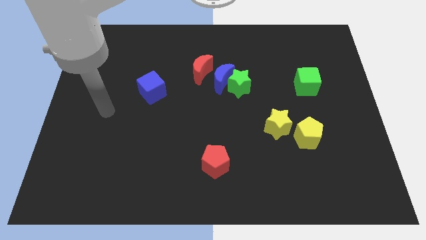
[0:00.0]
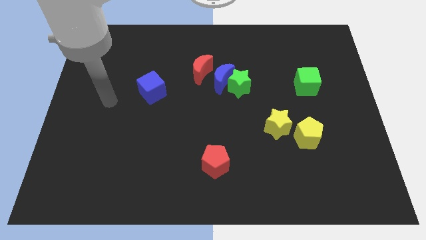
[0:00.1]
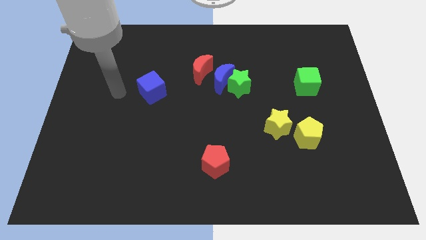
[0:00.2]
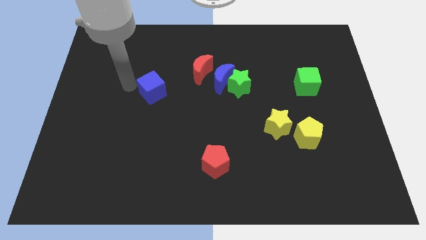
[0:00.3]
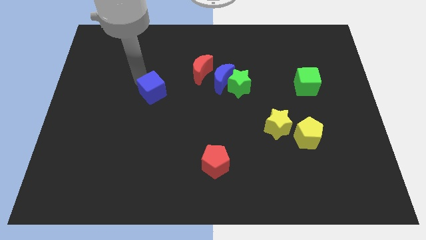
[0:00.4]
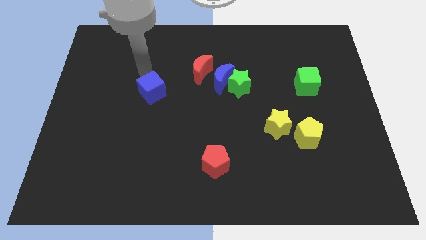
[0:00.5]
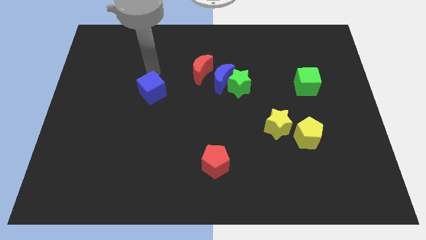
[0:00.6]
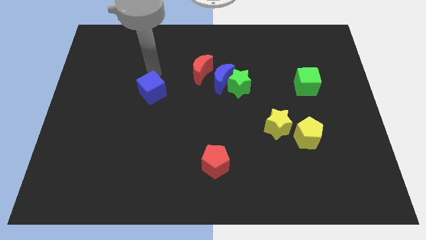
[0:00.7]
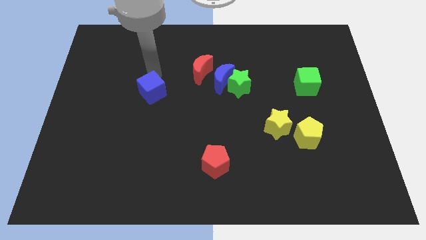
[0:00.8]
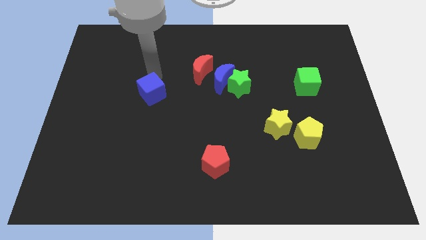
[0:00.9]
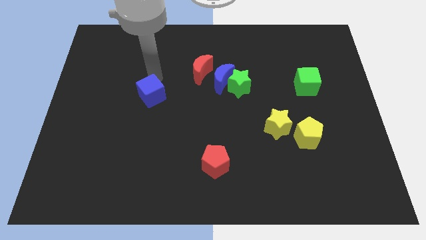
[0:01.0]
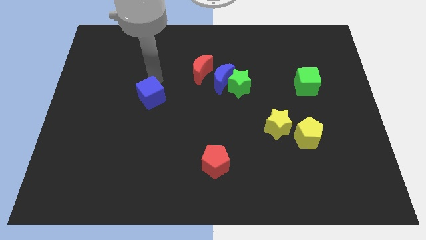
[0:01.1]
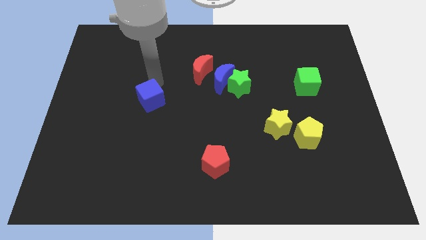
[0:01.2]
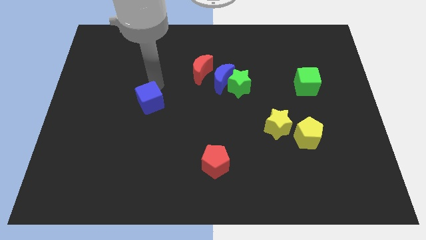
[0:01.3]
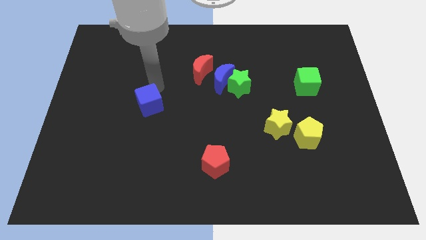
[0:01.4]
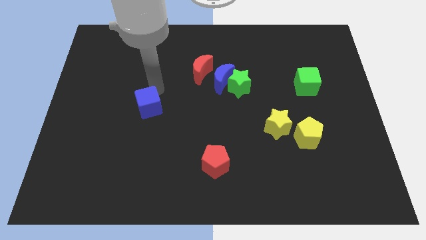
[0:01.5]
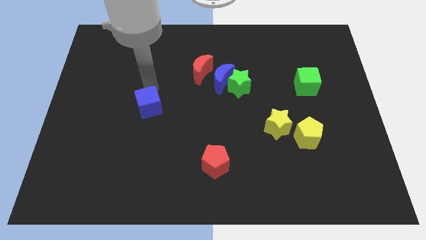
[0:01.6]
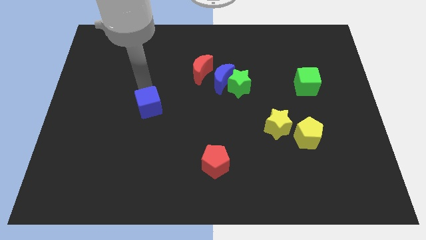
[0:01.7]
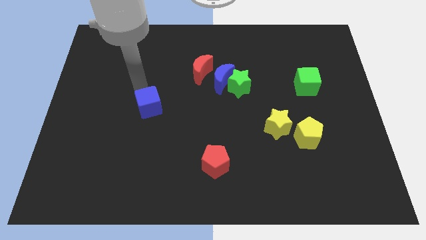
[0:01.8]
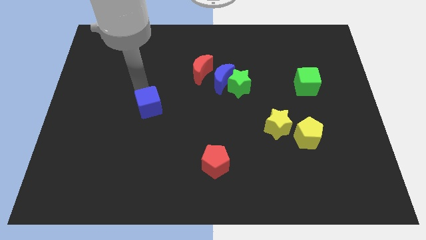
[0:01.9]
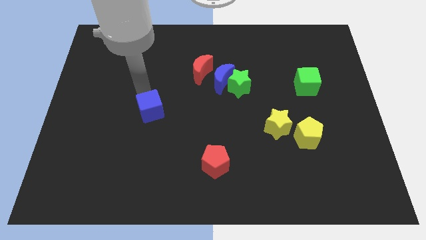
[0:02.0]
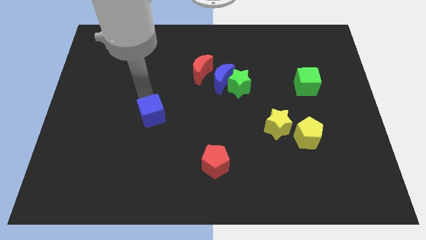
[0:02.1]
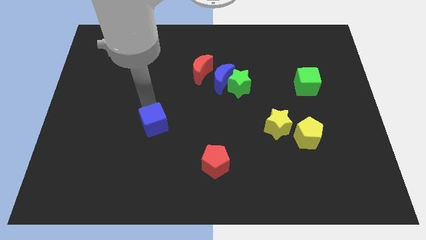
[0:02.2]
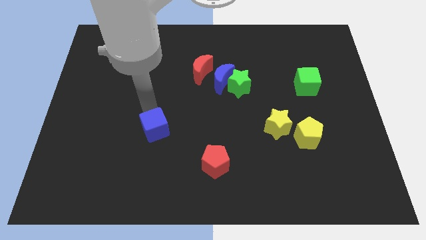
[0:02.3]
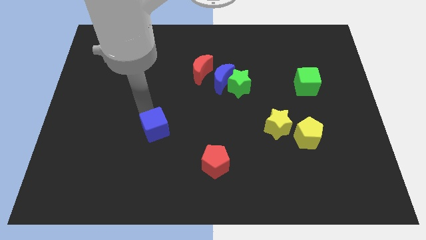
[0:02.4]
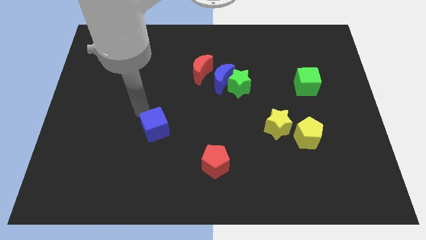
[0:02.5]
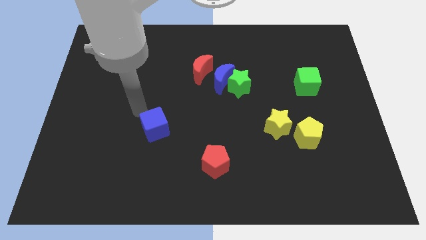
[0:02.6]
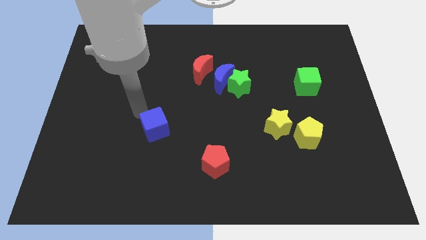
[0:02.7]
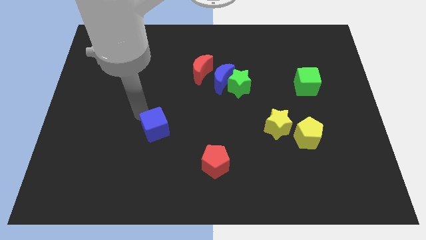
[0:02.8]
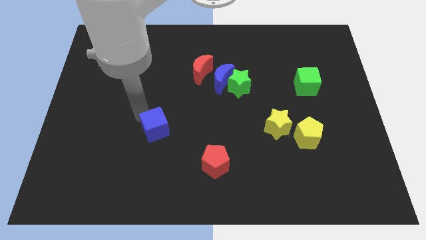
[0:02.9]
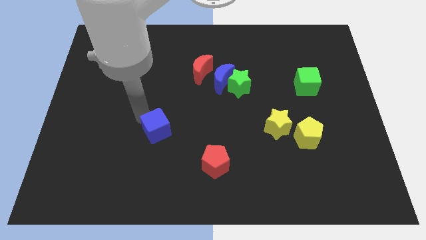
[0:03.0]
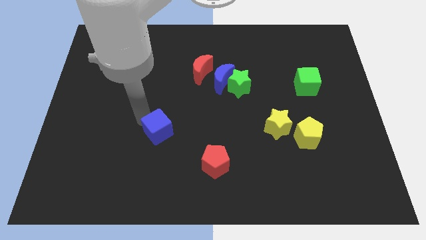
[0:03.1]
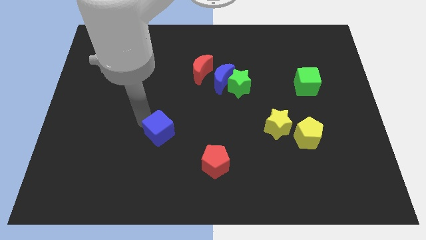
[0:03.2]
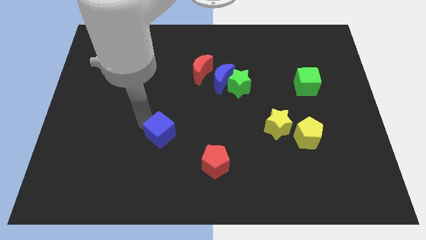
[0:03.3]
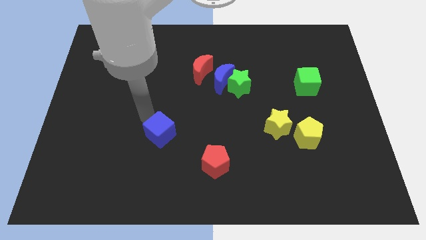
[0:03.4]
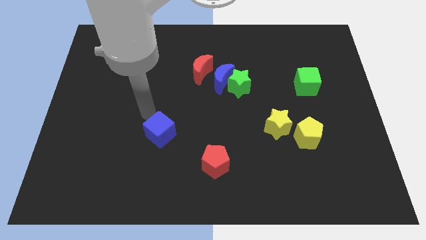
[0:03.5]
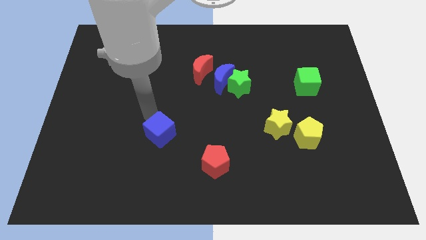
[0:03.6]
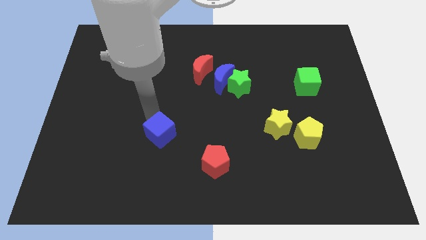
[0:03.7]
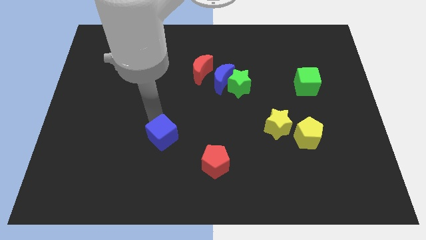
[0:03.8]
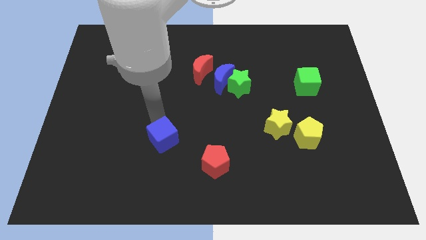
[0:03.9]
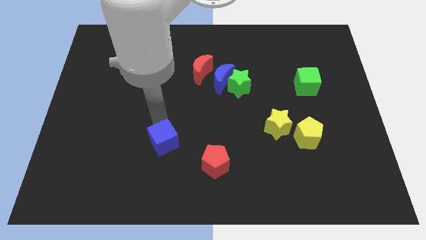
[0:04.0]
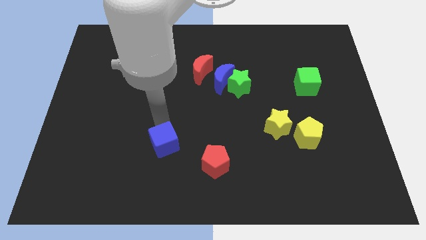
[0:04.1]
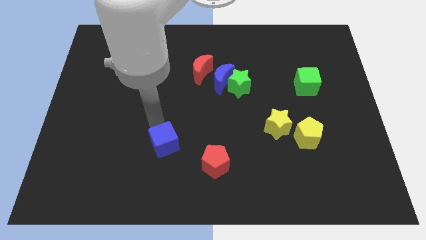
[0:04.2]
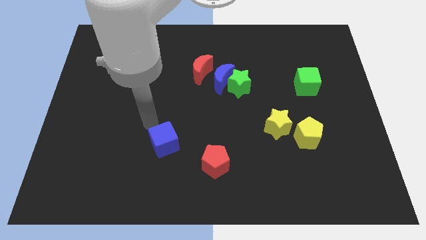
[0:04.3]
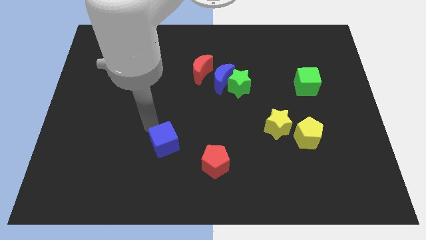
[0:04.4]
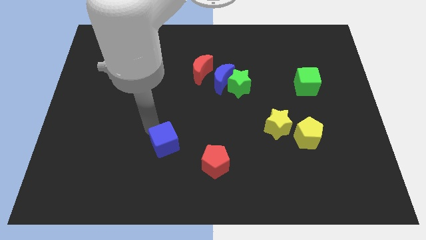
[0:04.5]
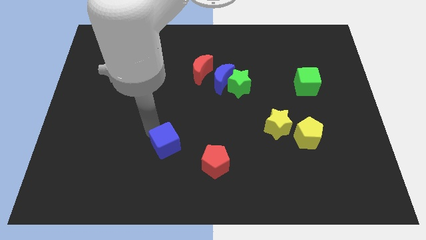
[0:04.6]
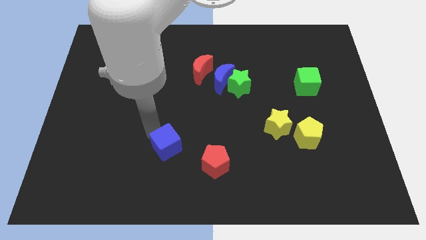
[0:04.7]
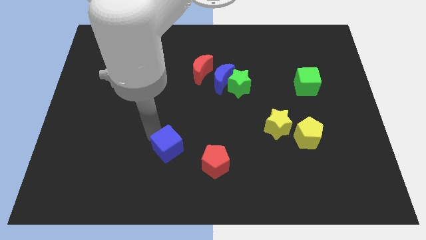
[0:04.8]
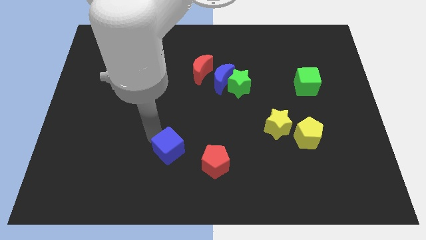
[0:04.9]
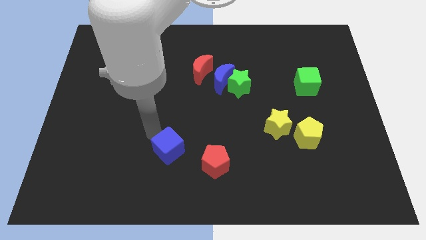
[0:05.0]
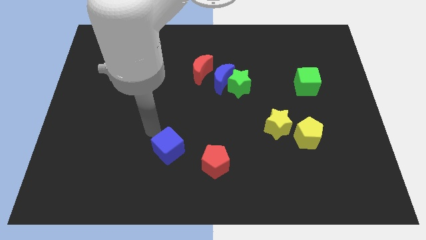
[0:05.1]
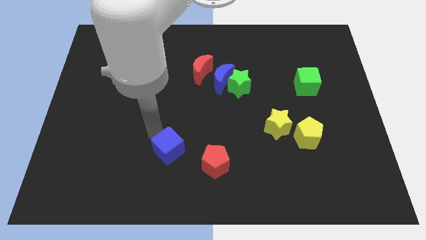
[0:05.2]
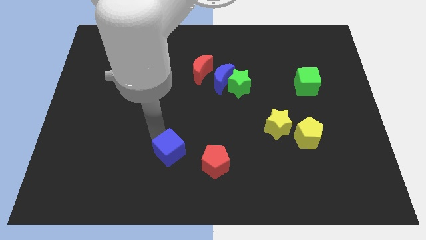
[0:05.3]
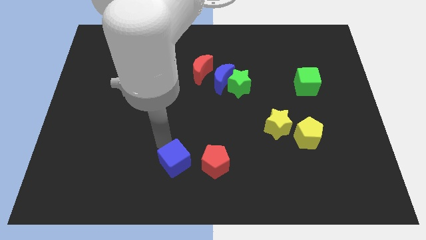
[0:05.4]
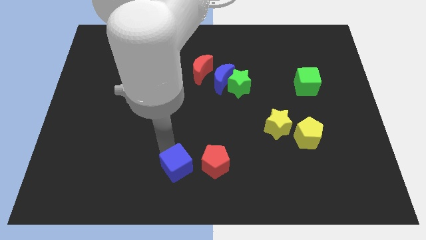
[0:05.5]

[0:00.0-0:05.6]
push the blue cube to the bottom

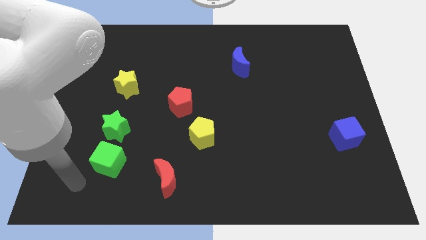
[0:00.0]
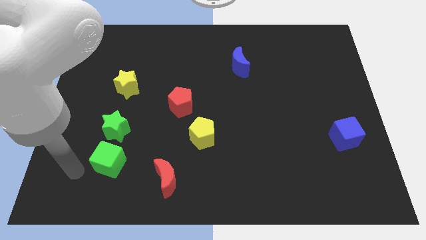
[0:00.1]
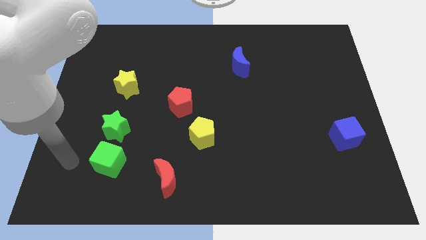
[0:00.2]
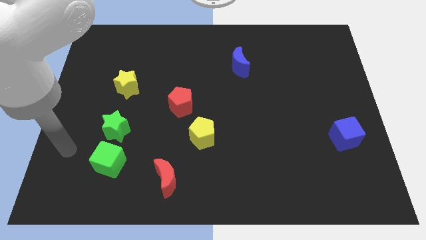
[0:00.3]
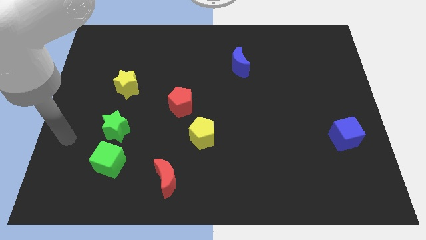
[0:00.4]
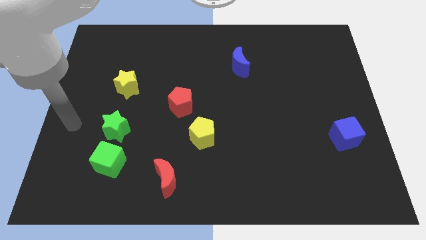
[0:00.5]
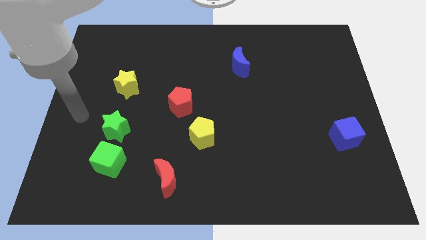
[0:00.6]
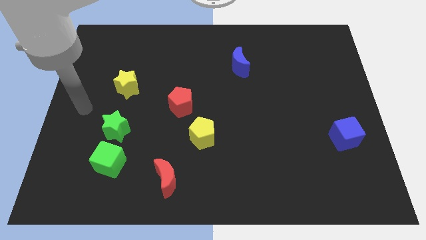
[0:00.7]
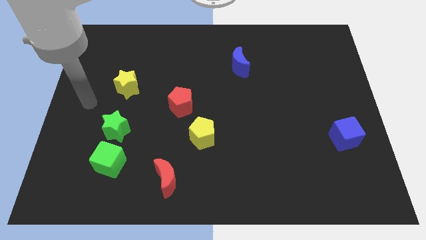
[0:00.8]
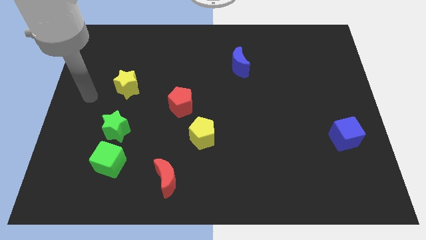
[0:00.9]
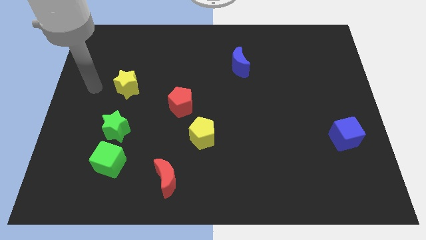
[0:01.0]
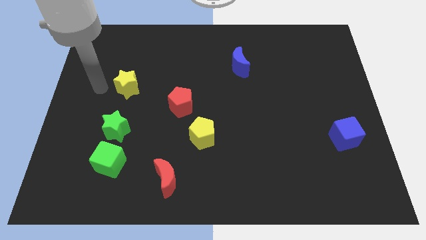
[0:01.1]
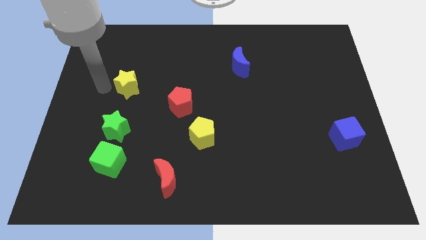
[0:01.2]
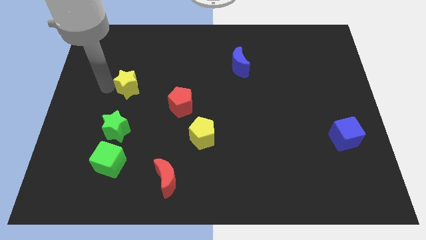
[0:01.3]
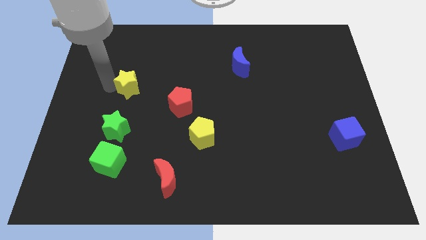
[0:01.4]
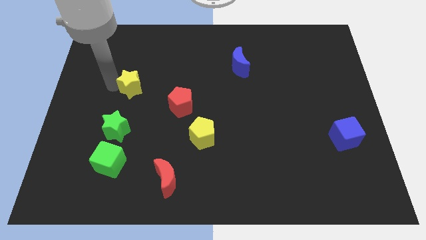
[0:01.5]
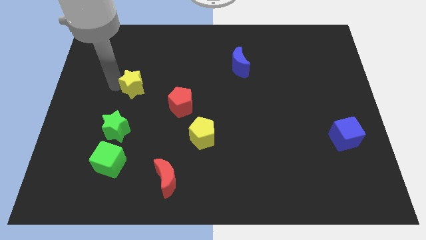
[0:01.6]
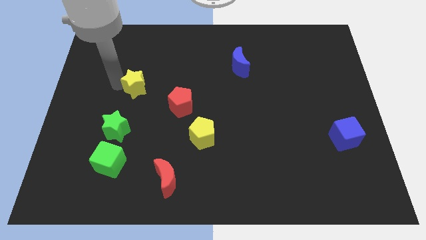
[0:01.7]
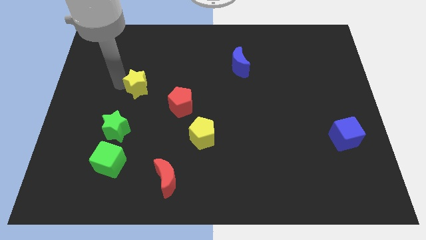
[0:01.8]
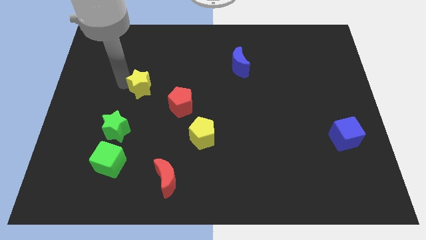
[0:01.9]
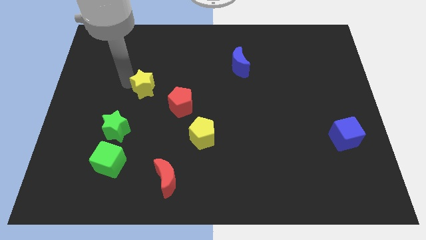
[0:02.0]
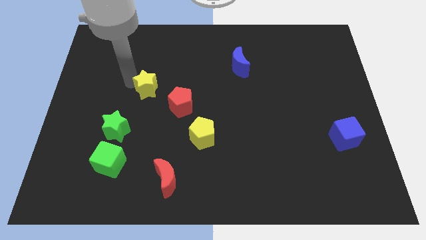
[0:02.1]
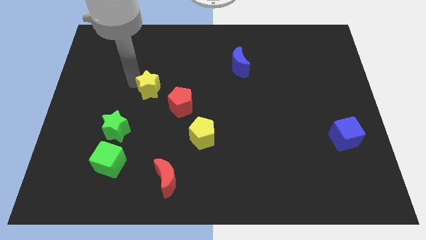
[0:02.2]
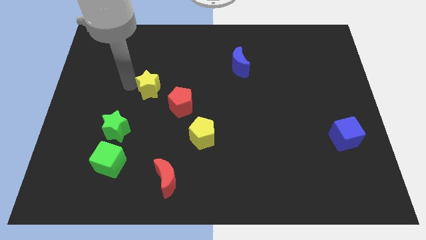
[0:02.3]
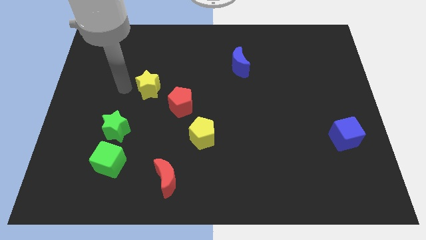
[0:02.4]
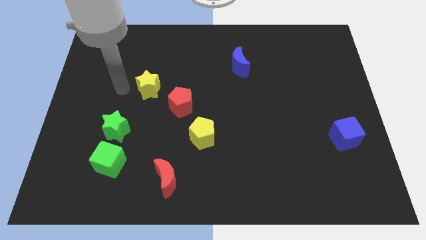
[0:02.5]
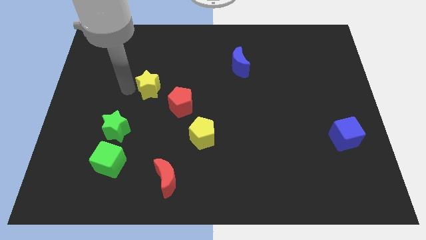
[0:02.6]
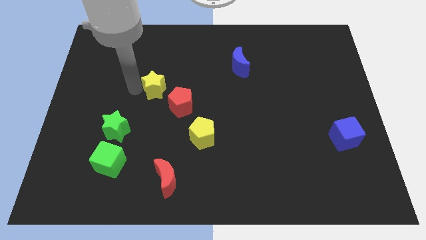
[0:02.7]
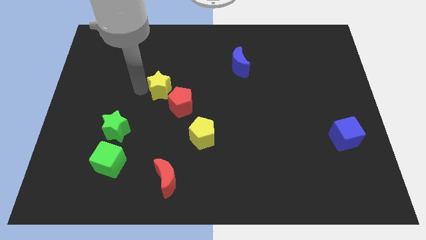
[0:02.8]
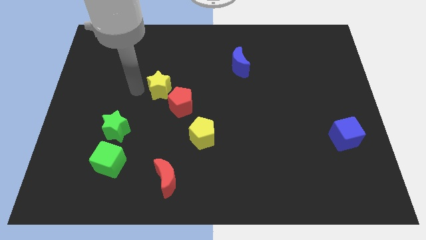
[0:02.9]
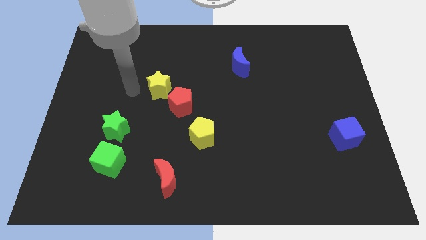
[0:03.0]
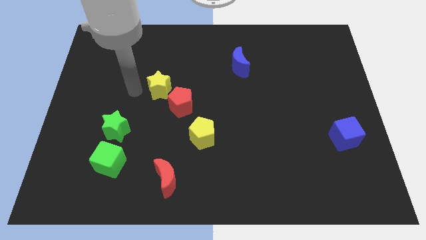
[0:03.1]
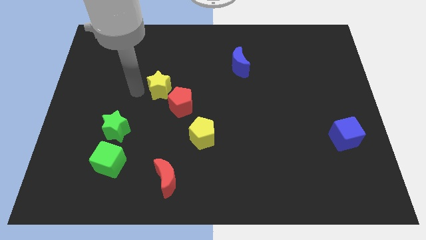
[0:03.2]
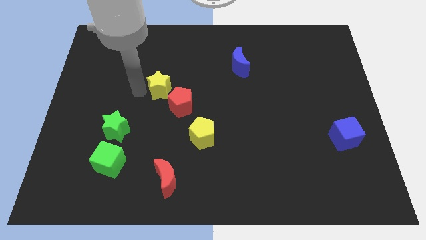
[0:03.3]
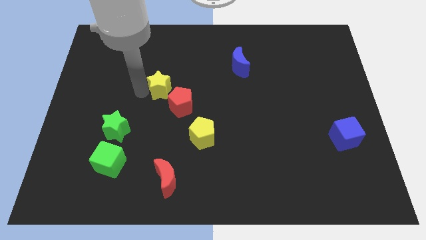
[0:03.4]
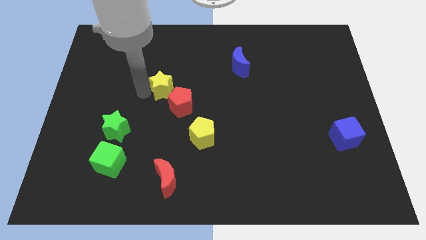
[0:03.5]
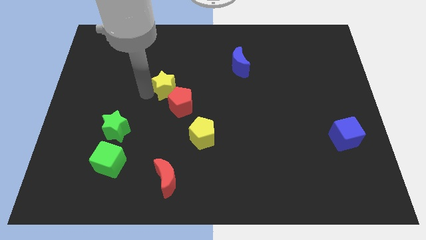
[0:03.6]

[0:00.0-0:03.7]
put the yellow star to the middle
